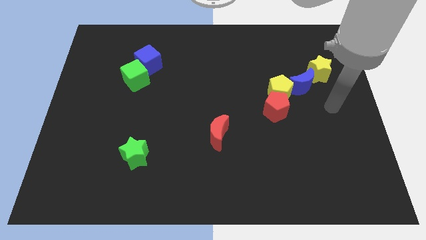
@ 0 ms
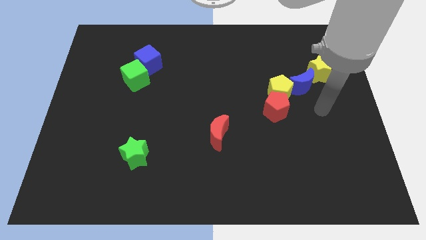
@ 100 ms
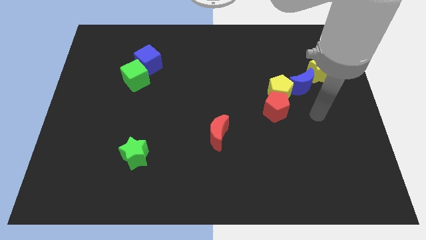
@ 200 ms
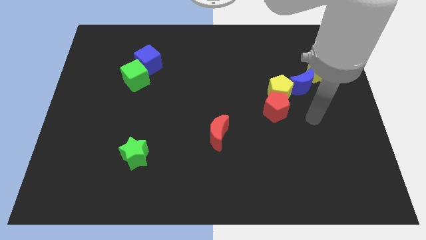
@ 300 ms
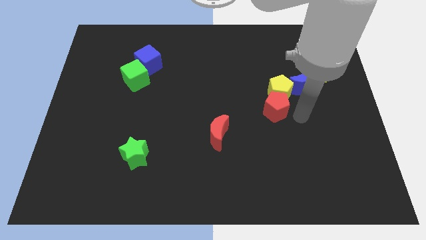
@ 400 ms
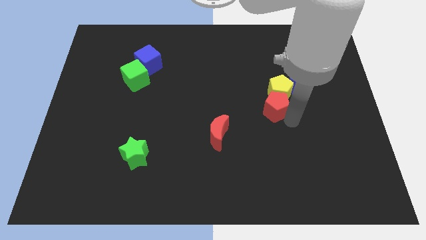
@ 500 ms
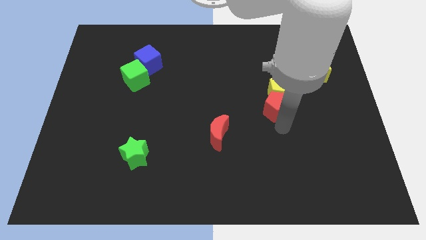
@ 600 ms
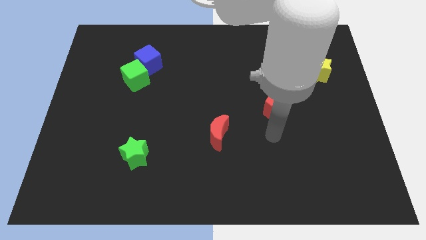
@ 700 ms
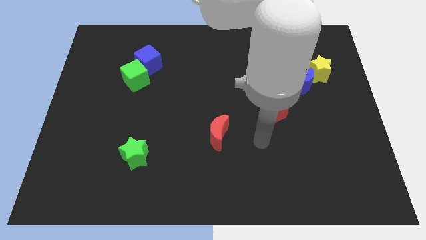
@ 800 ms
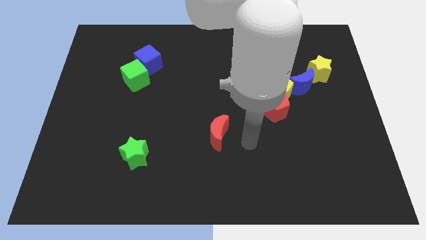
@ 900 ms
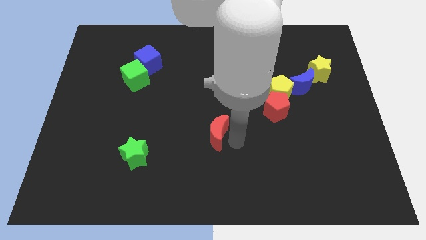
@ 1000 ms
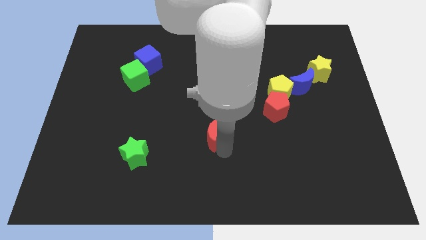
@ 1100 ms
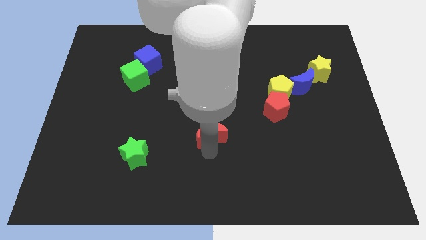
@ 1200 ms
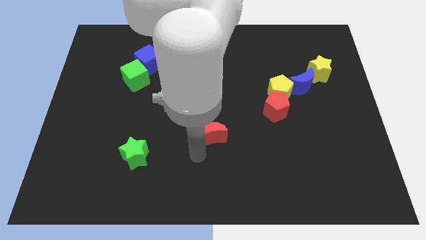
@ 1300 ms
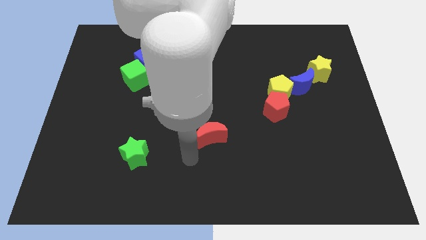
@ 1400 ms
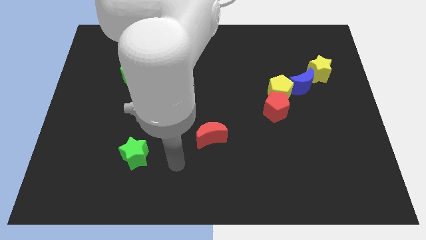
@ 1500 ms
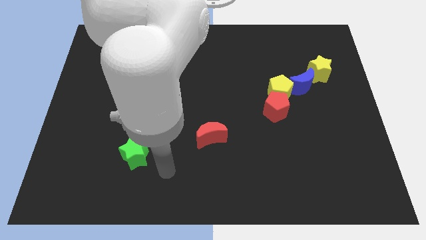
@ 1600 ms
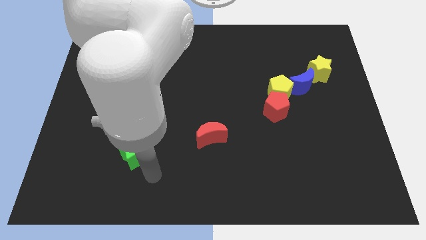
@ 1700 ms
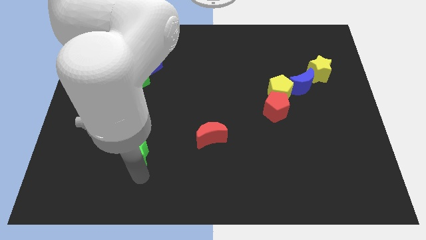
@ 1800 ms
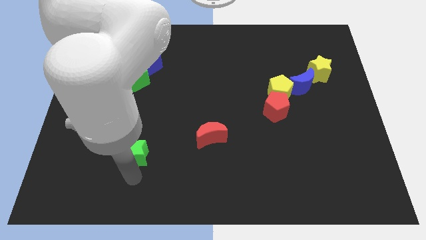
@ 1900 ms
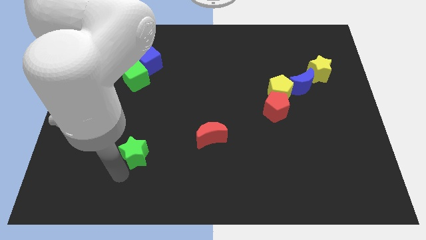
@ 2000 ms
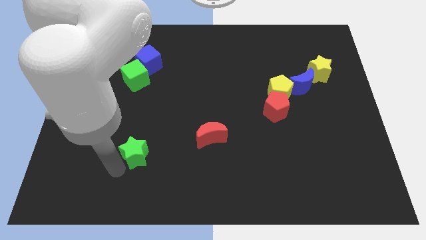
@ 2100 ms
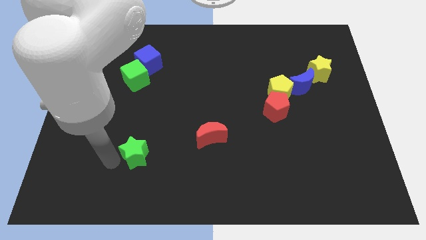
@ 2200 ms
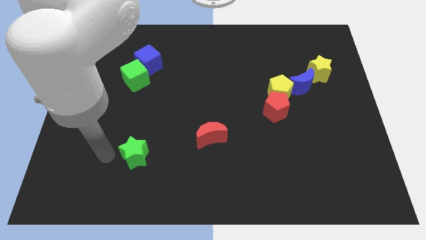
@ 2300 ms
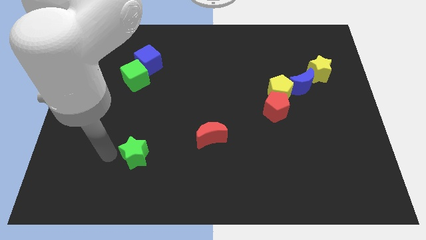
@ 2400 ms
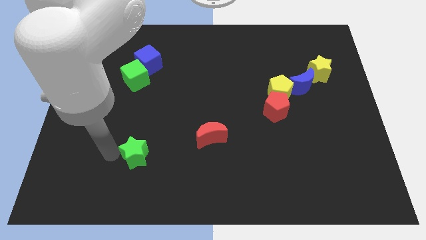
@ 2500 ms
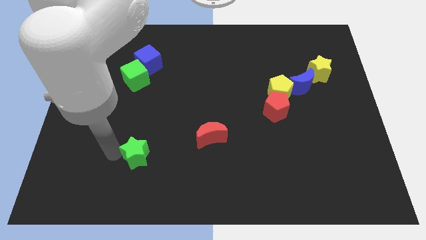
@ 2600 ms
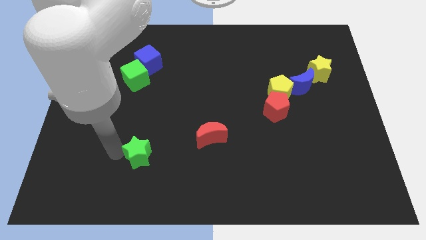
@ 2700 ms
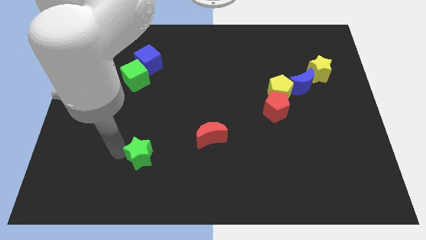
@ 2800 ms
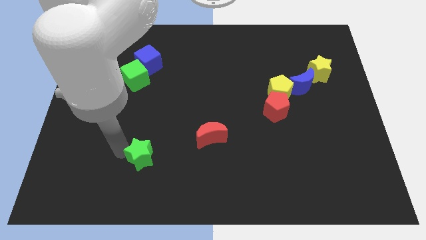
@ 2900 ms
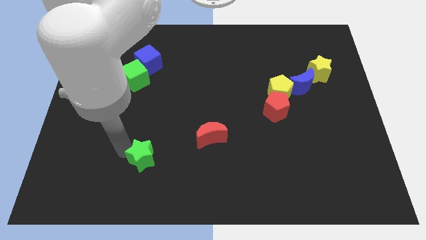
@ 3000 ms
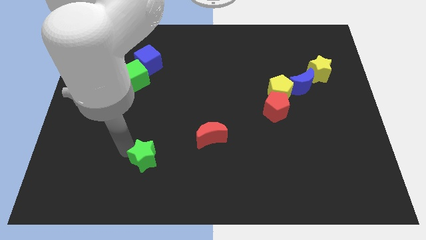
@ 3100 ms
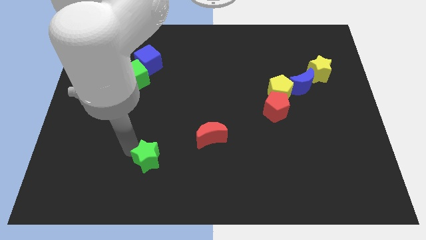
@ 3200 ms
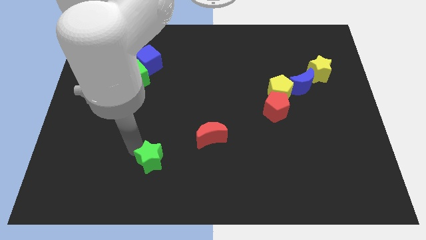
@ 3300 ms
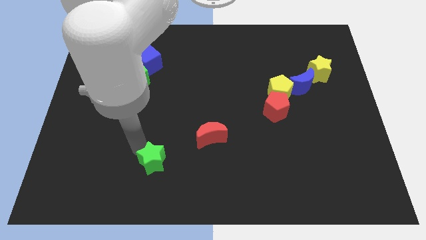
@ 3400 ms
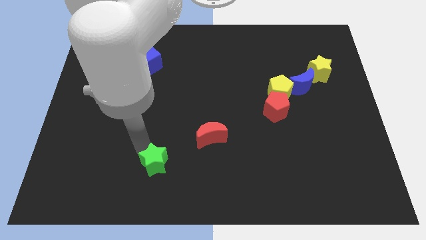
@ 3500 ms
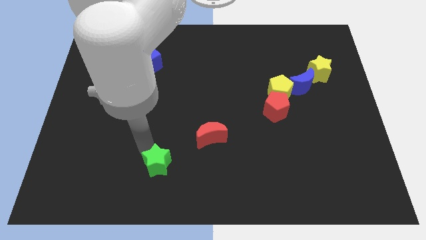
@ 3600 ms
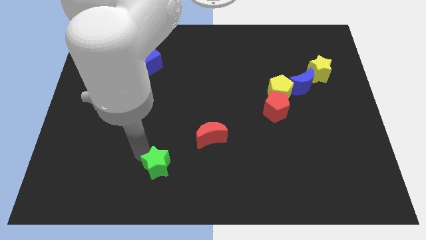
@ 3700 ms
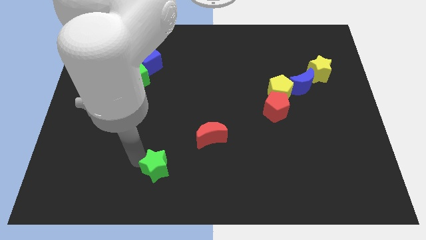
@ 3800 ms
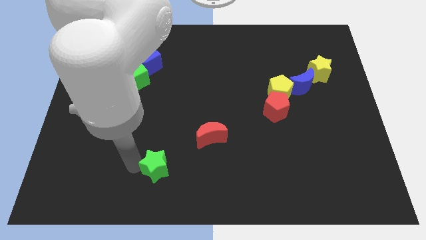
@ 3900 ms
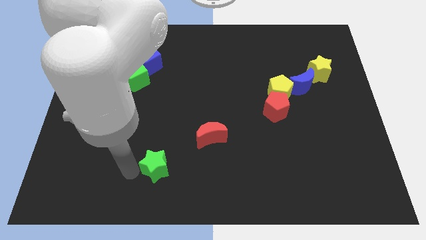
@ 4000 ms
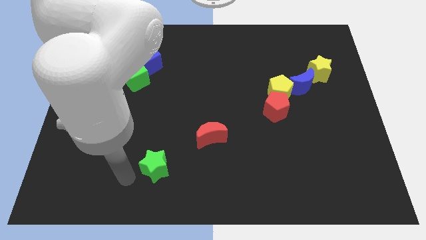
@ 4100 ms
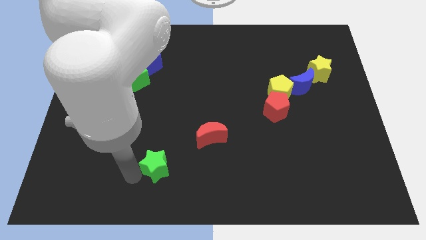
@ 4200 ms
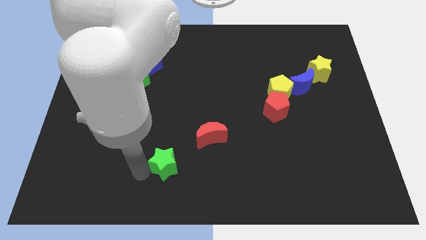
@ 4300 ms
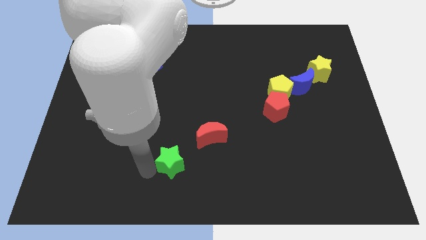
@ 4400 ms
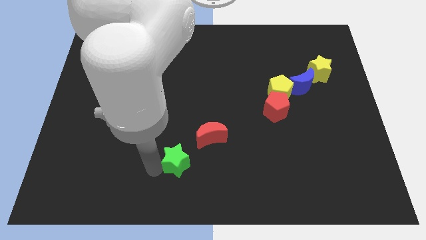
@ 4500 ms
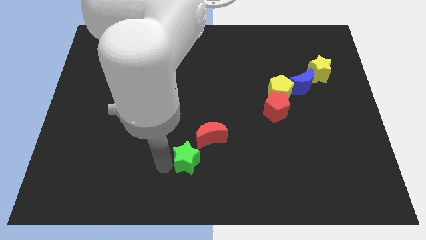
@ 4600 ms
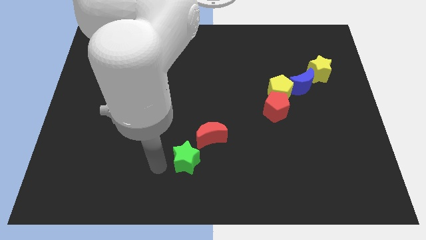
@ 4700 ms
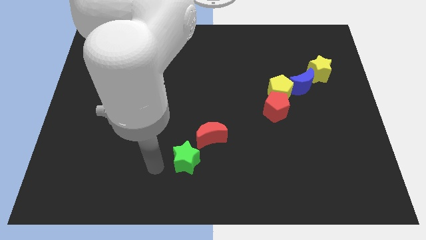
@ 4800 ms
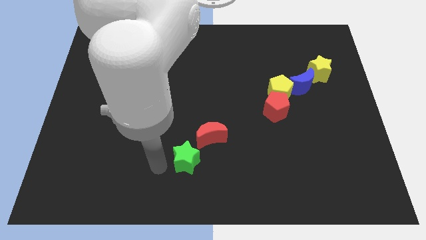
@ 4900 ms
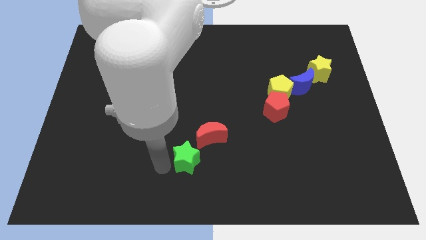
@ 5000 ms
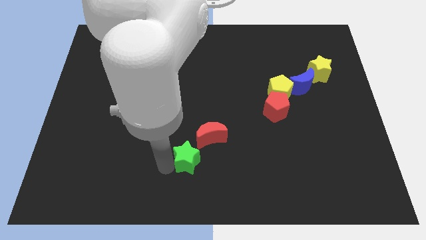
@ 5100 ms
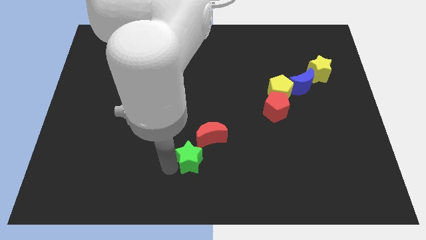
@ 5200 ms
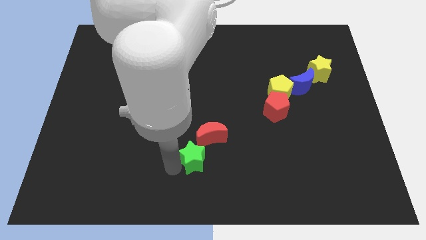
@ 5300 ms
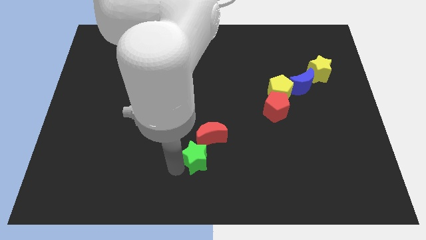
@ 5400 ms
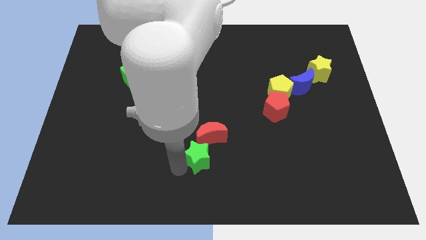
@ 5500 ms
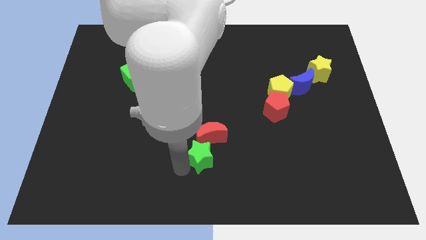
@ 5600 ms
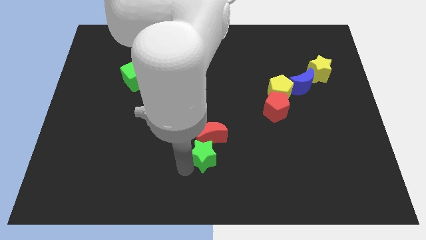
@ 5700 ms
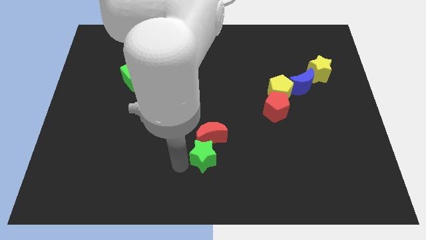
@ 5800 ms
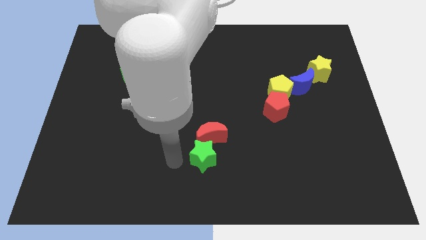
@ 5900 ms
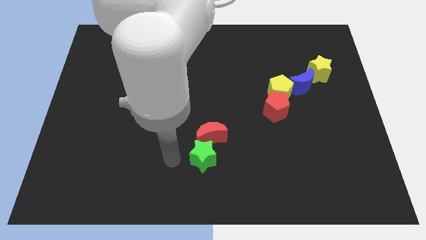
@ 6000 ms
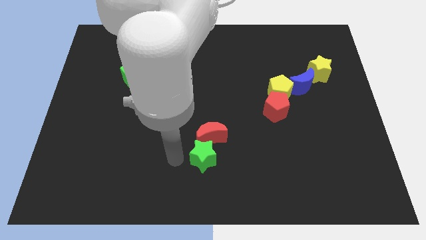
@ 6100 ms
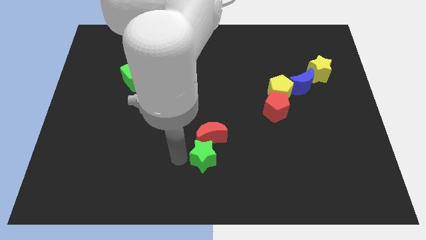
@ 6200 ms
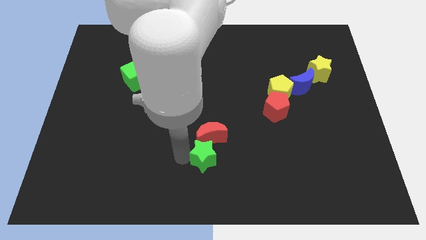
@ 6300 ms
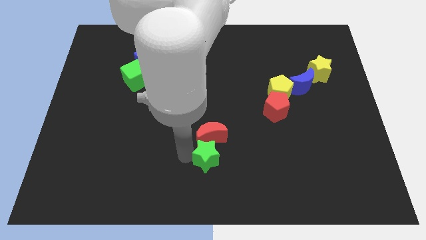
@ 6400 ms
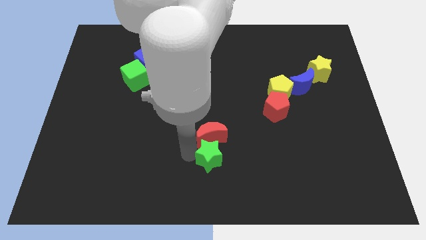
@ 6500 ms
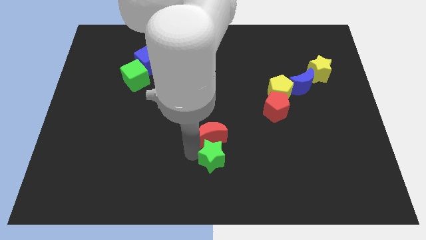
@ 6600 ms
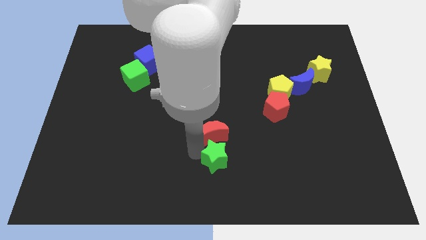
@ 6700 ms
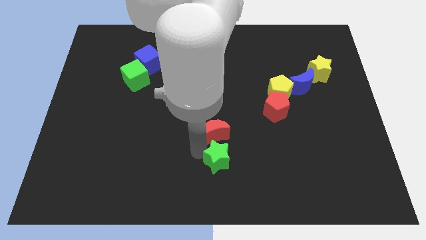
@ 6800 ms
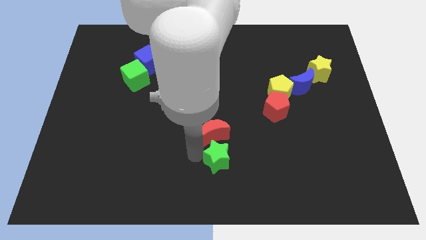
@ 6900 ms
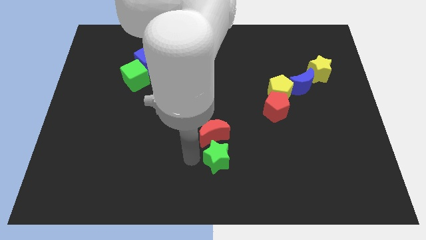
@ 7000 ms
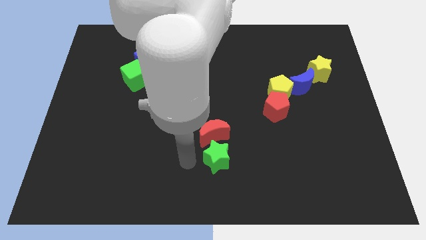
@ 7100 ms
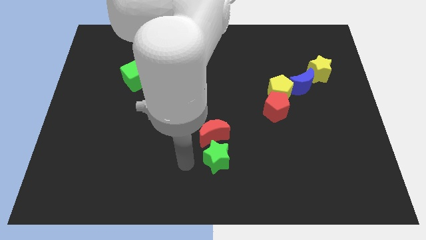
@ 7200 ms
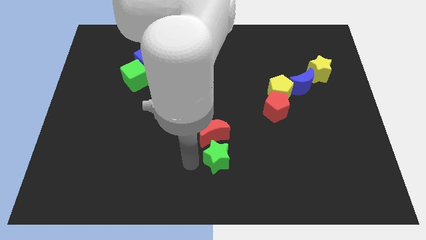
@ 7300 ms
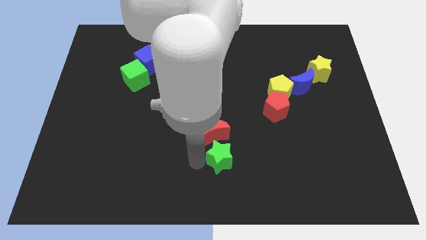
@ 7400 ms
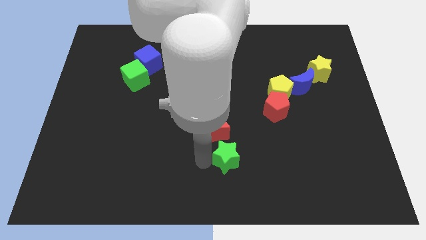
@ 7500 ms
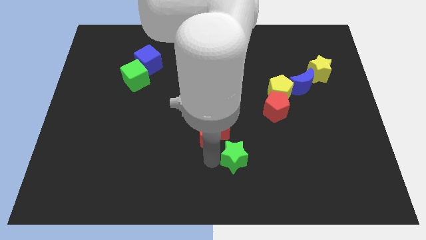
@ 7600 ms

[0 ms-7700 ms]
slide the green star to the right
